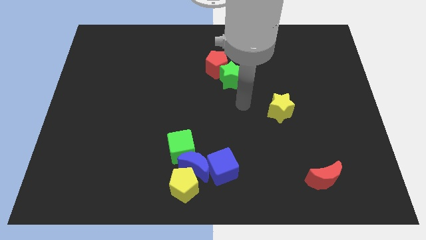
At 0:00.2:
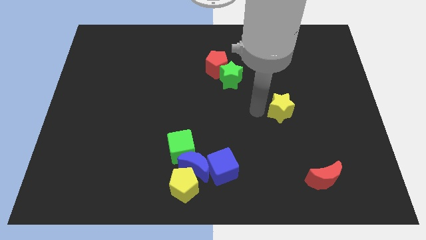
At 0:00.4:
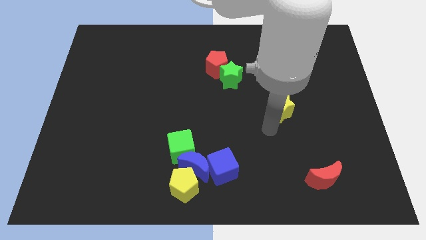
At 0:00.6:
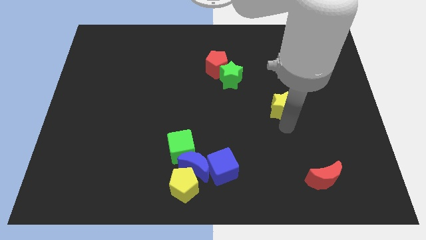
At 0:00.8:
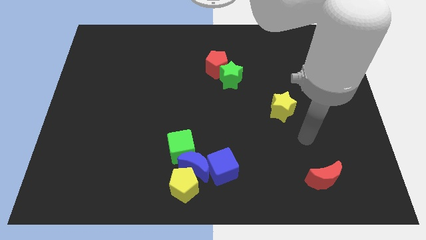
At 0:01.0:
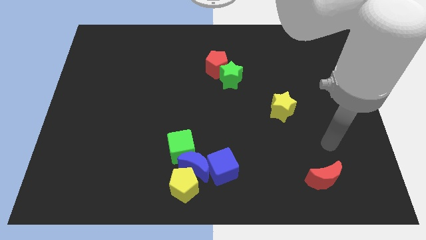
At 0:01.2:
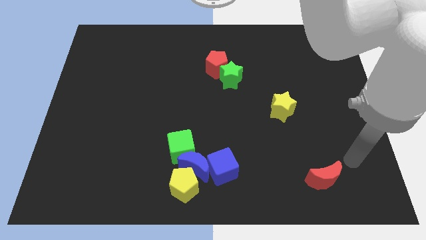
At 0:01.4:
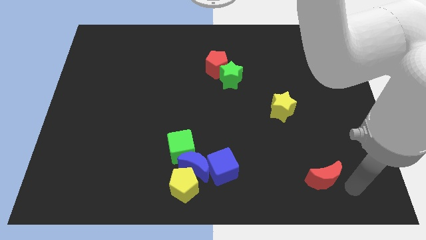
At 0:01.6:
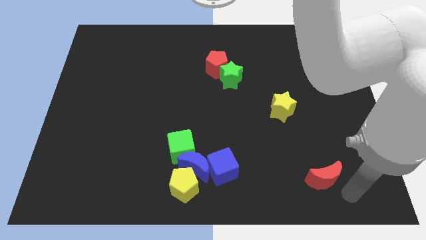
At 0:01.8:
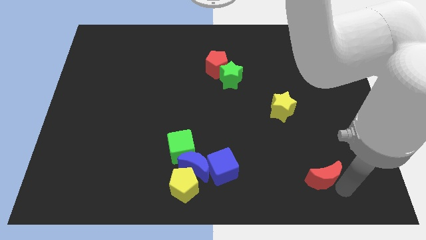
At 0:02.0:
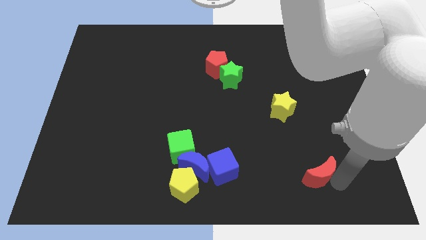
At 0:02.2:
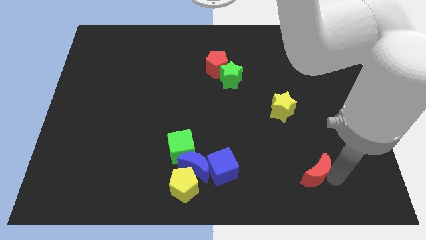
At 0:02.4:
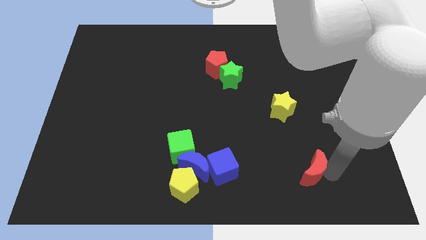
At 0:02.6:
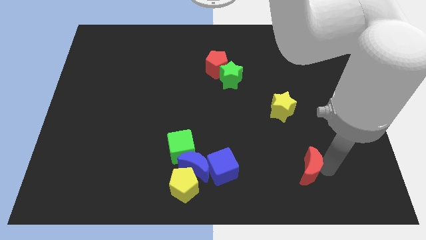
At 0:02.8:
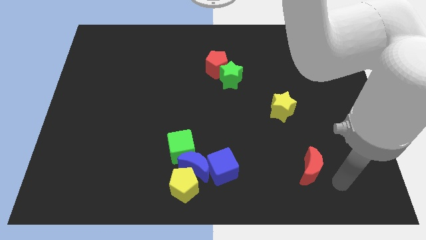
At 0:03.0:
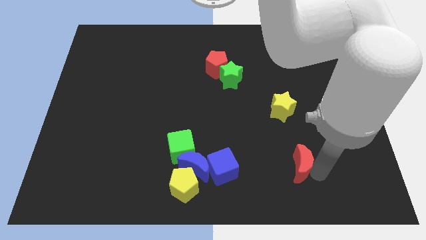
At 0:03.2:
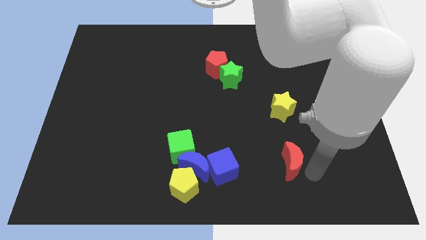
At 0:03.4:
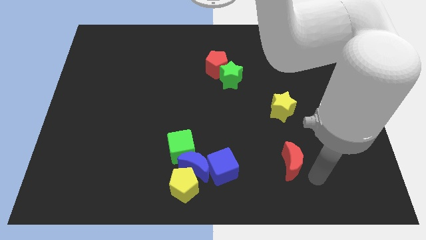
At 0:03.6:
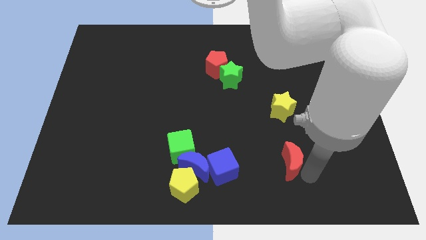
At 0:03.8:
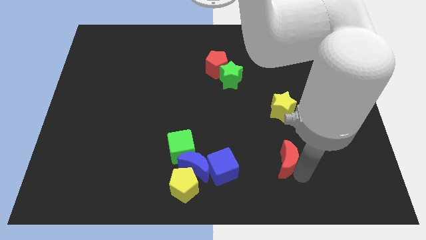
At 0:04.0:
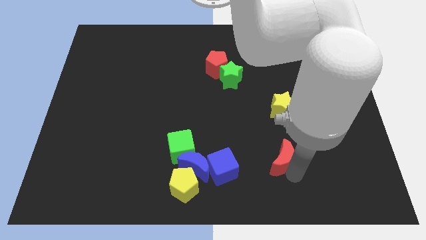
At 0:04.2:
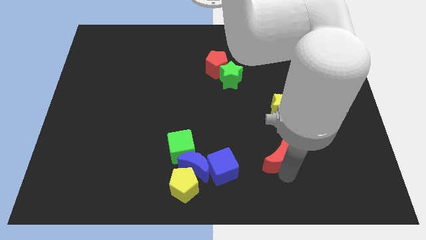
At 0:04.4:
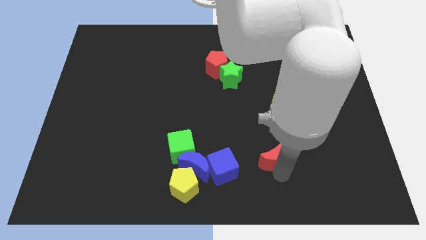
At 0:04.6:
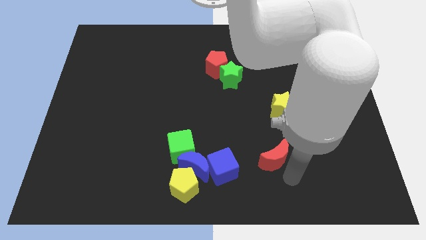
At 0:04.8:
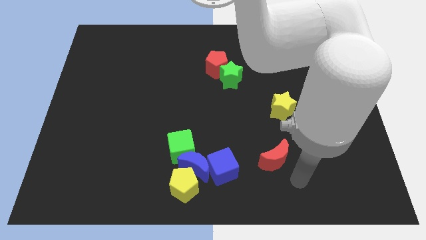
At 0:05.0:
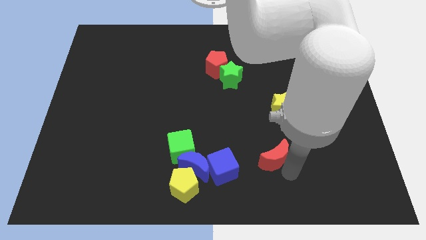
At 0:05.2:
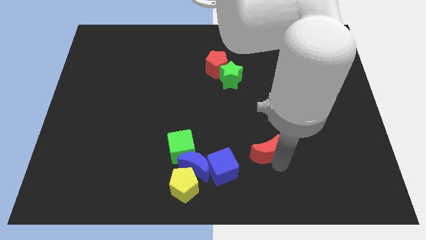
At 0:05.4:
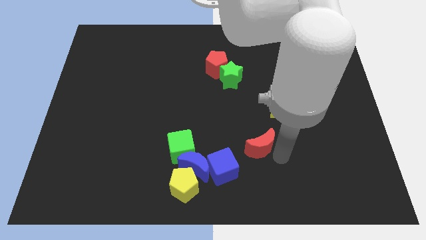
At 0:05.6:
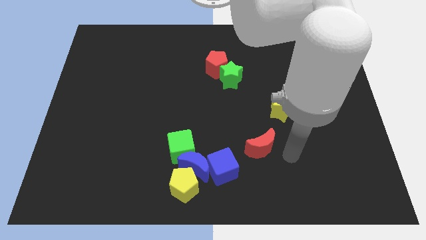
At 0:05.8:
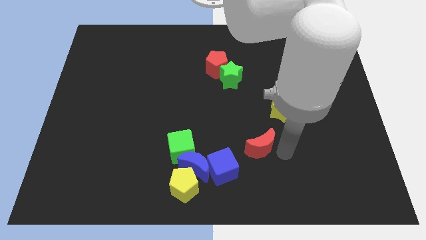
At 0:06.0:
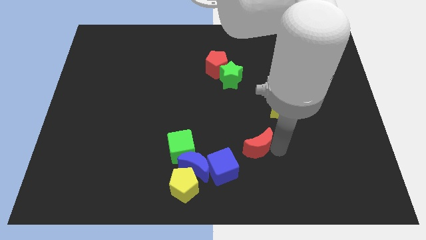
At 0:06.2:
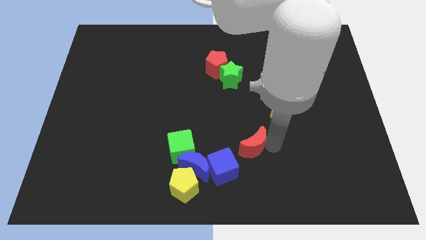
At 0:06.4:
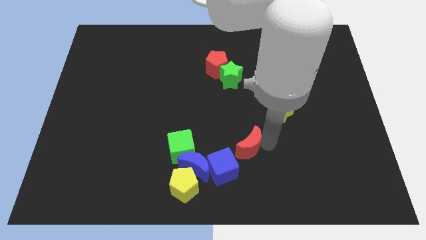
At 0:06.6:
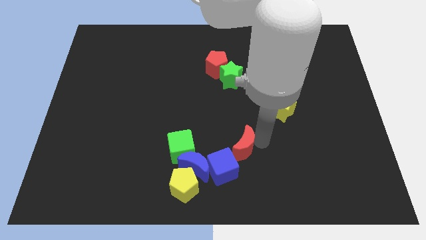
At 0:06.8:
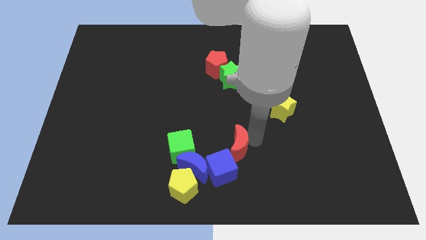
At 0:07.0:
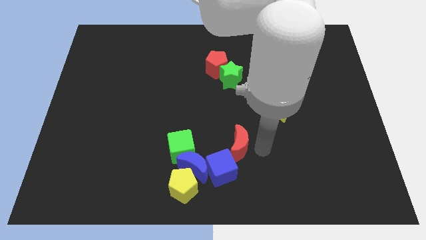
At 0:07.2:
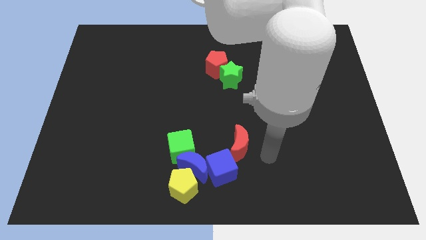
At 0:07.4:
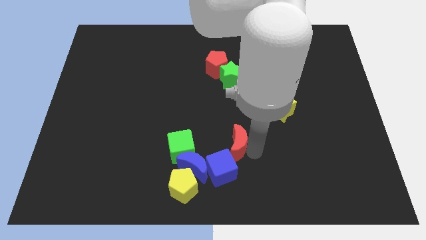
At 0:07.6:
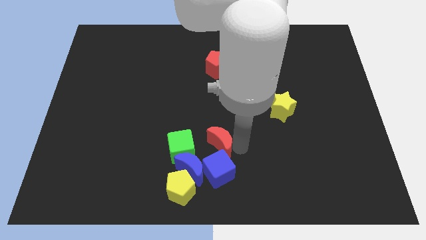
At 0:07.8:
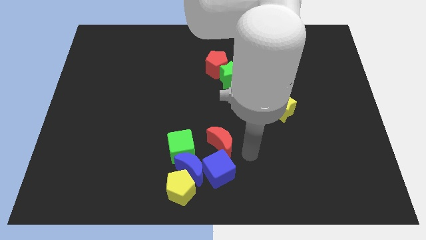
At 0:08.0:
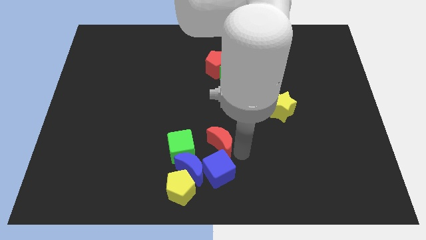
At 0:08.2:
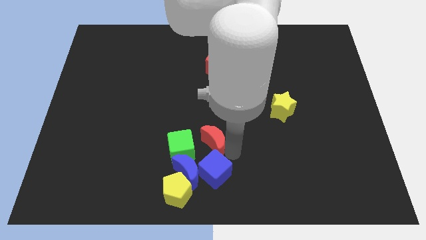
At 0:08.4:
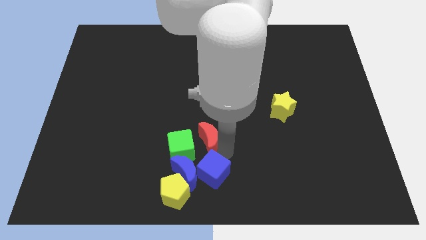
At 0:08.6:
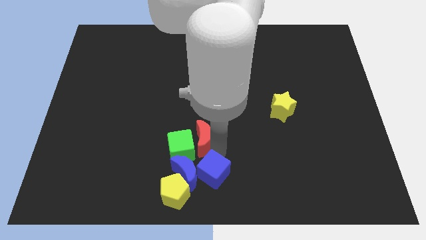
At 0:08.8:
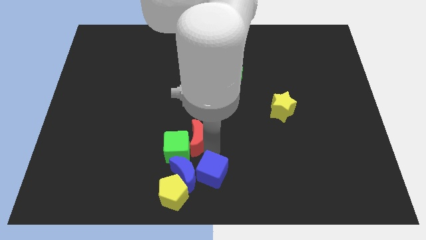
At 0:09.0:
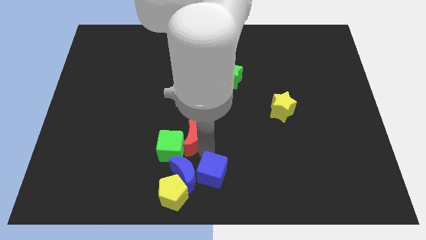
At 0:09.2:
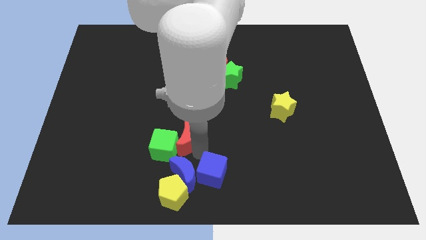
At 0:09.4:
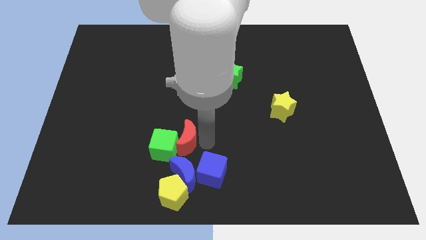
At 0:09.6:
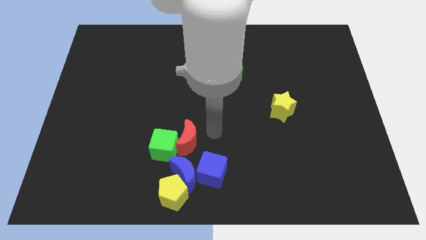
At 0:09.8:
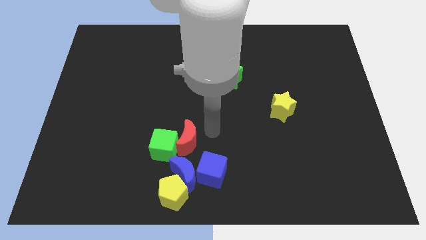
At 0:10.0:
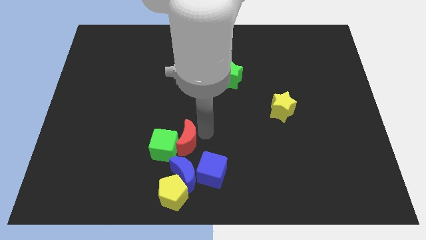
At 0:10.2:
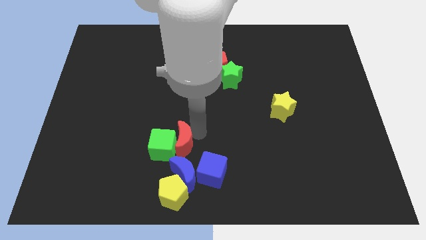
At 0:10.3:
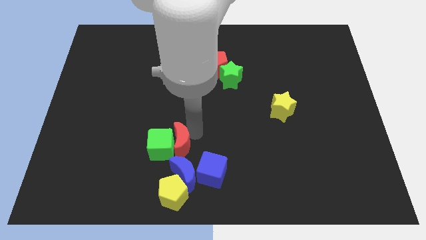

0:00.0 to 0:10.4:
slide the red moon to the top left side of the blue moon

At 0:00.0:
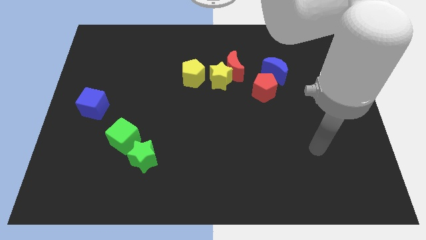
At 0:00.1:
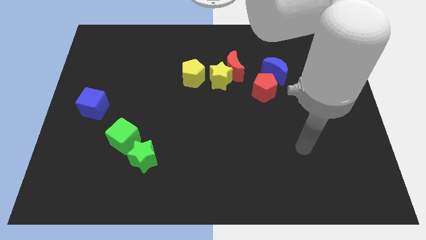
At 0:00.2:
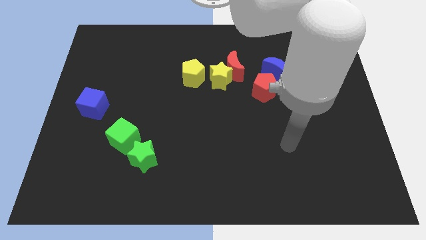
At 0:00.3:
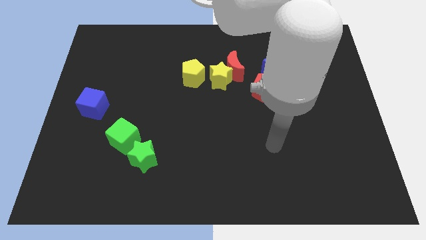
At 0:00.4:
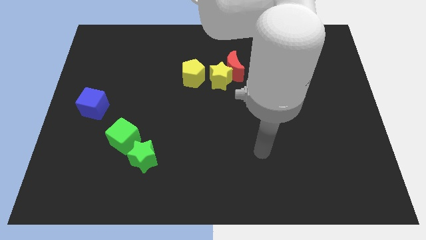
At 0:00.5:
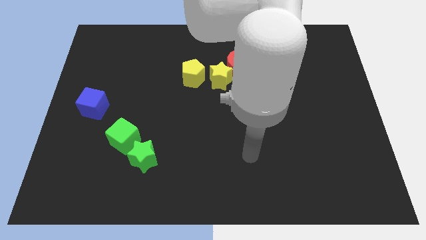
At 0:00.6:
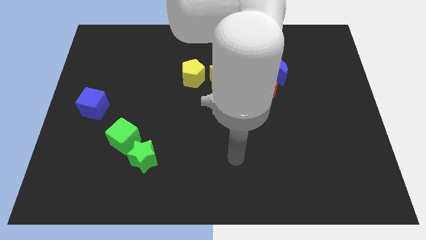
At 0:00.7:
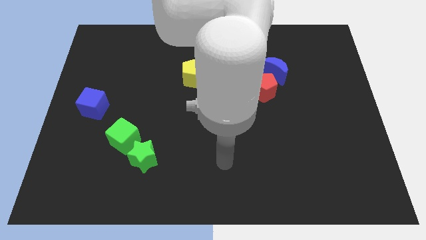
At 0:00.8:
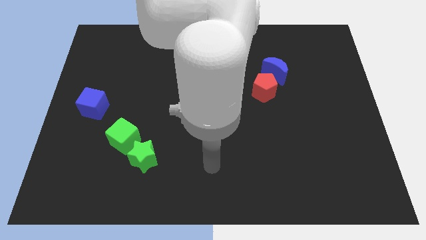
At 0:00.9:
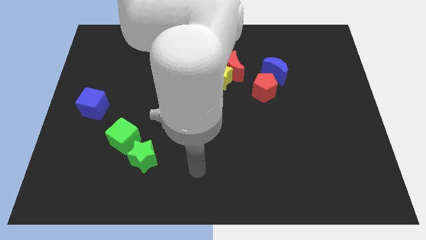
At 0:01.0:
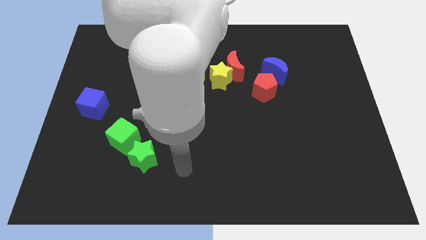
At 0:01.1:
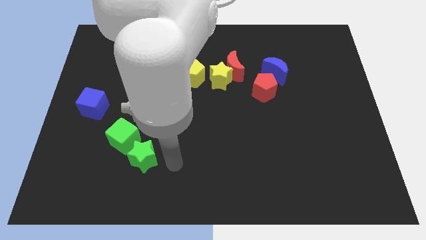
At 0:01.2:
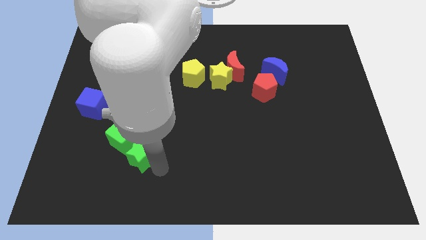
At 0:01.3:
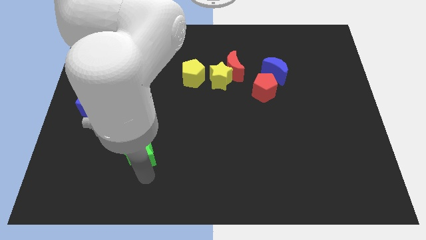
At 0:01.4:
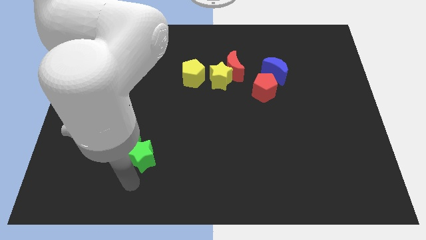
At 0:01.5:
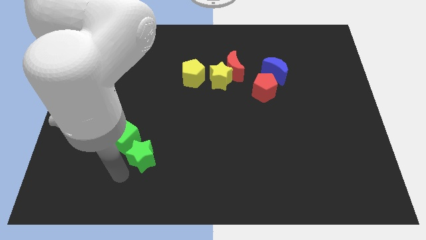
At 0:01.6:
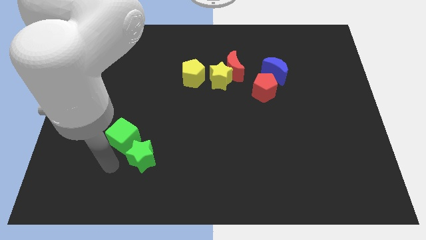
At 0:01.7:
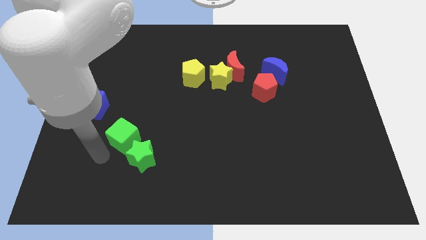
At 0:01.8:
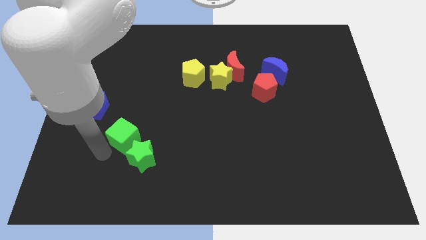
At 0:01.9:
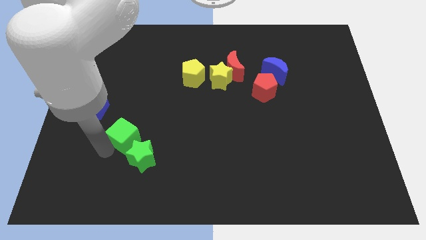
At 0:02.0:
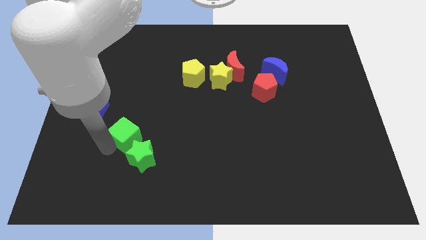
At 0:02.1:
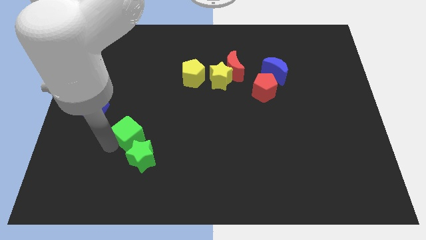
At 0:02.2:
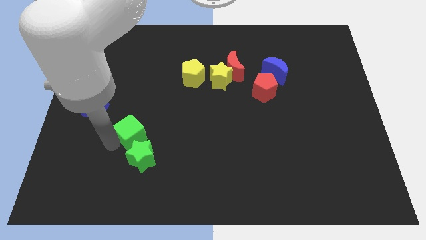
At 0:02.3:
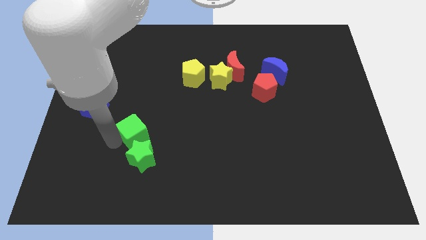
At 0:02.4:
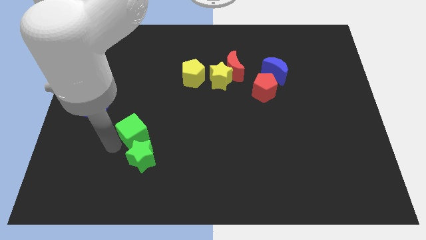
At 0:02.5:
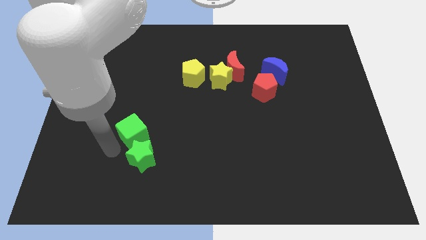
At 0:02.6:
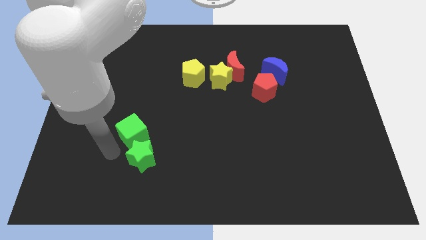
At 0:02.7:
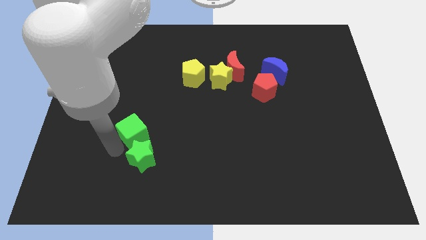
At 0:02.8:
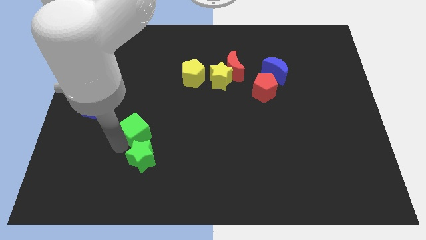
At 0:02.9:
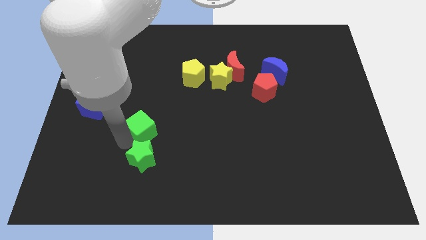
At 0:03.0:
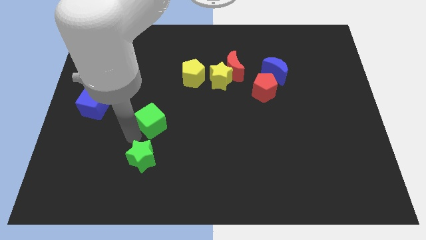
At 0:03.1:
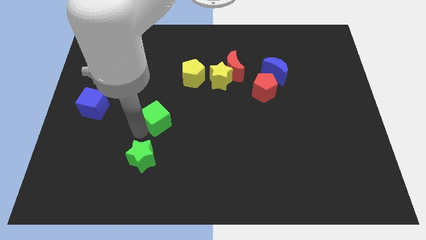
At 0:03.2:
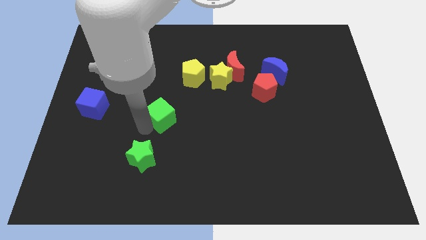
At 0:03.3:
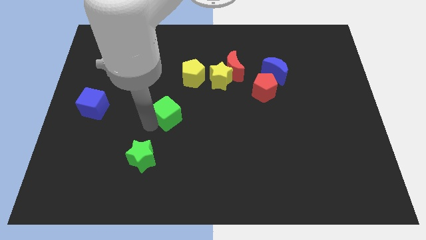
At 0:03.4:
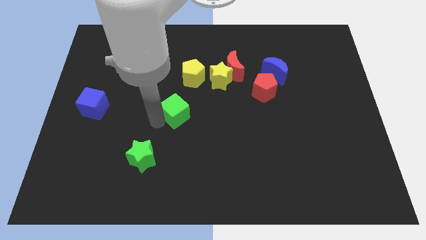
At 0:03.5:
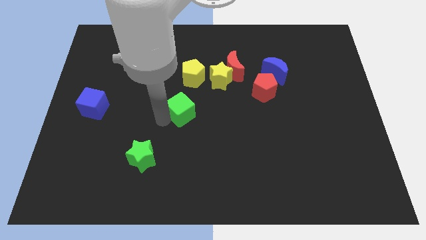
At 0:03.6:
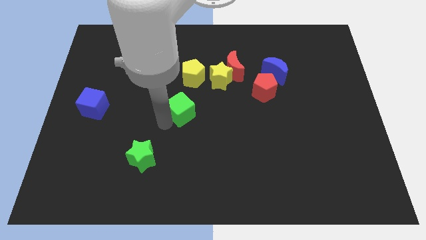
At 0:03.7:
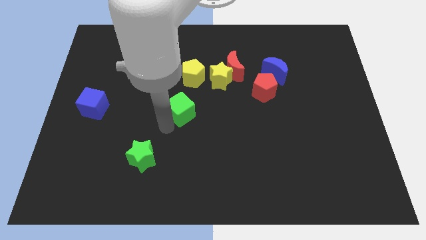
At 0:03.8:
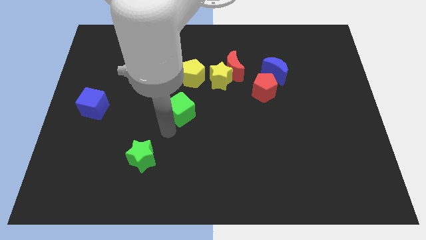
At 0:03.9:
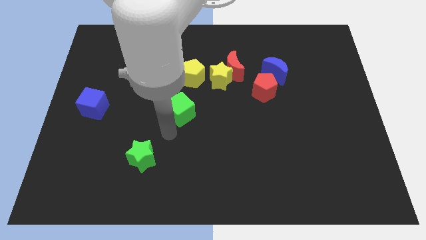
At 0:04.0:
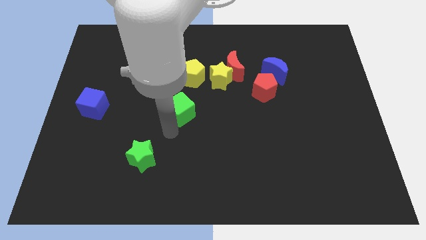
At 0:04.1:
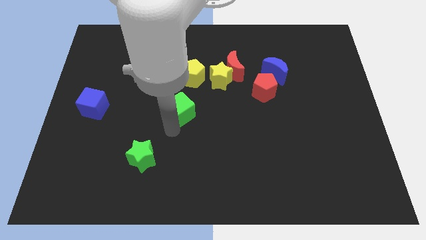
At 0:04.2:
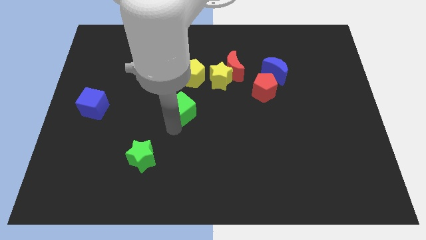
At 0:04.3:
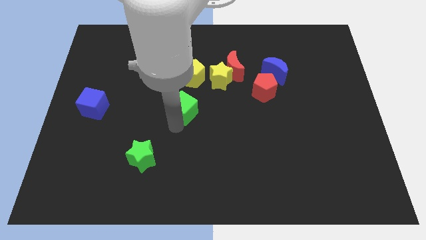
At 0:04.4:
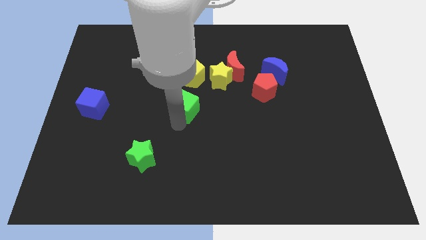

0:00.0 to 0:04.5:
put the green cube to the bottom left of the yellow star
